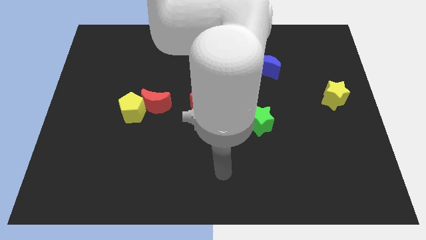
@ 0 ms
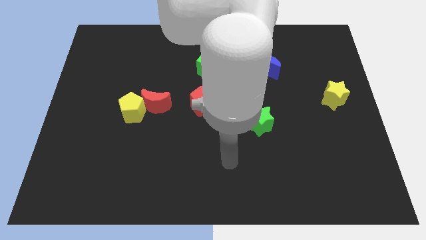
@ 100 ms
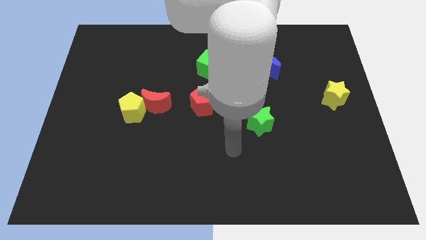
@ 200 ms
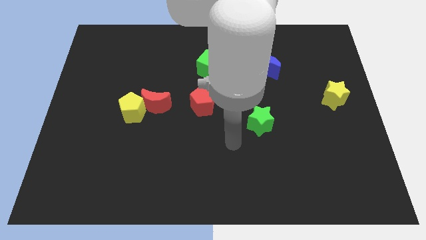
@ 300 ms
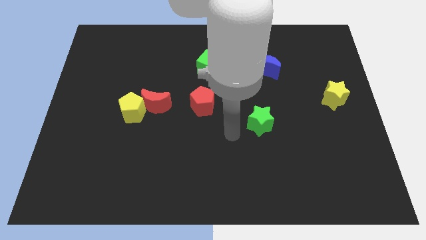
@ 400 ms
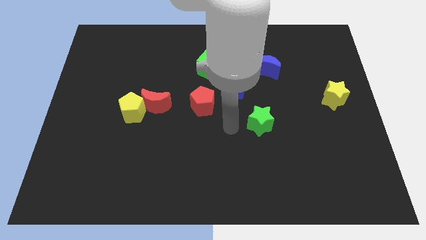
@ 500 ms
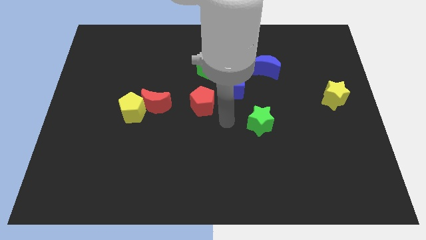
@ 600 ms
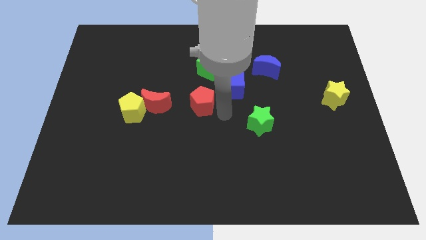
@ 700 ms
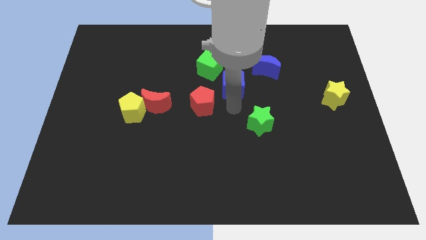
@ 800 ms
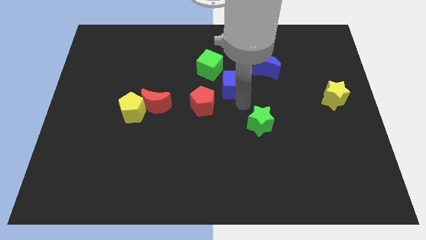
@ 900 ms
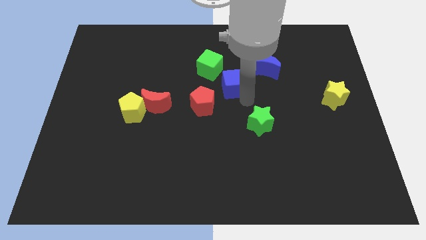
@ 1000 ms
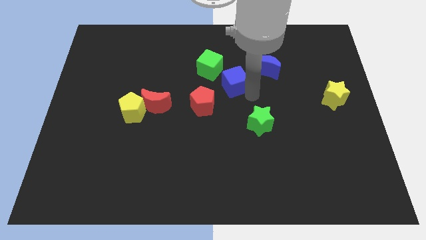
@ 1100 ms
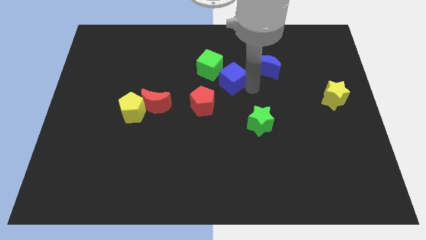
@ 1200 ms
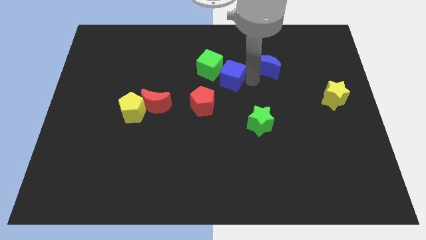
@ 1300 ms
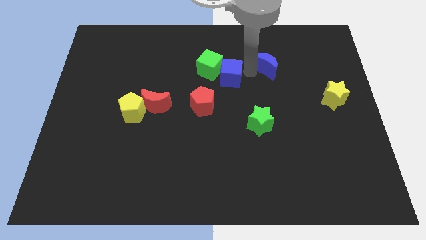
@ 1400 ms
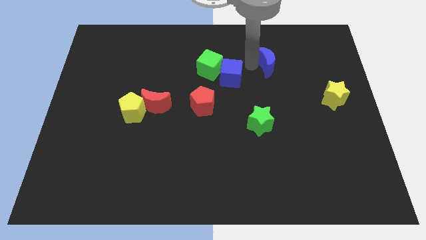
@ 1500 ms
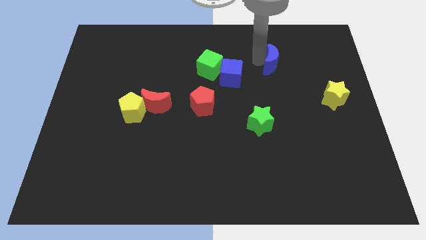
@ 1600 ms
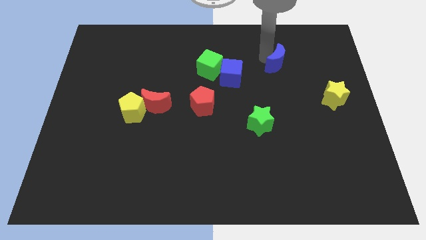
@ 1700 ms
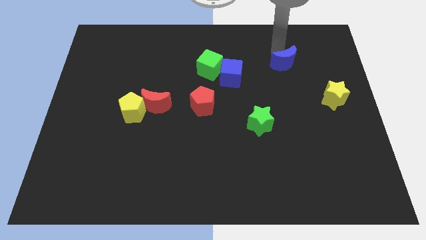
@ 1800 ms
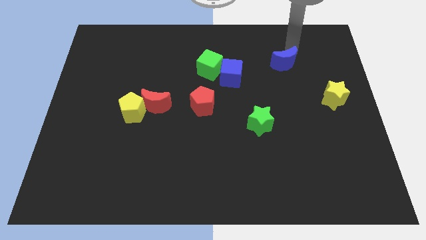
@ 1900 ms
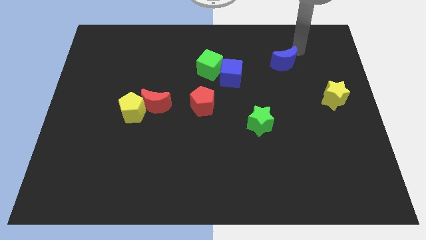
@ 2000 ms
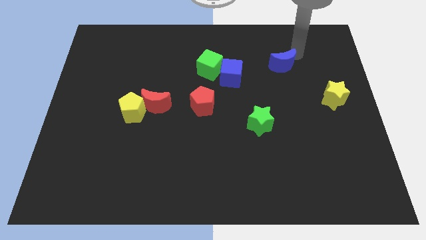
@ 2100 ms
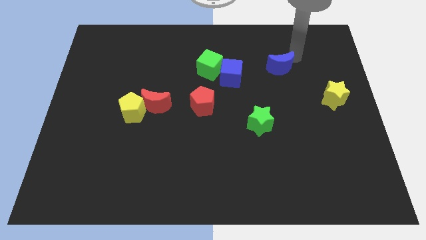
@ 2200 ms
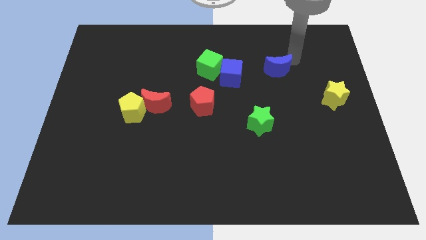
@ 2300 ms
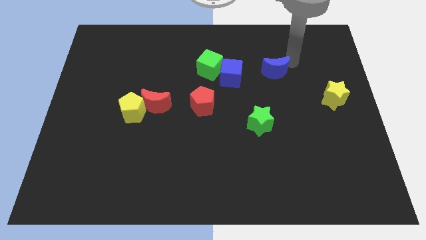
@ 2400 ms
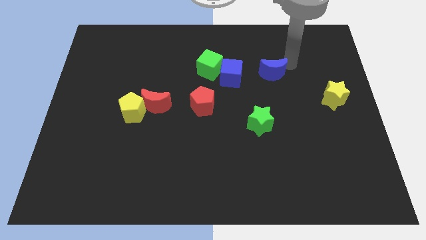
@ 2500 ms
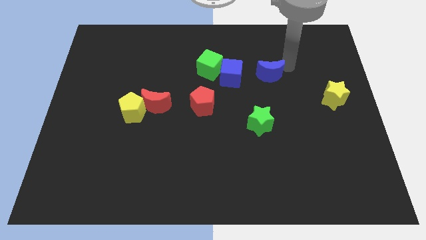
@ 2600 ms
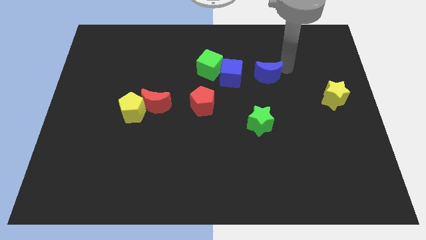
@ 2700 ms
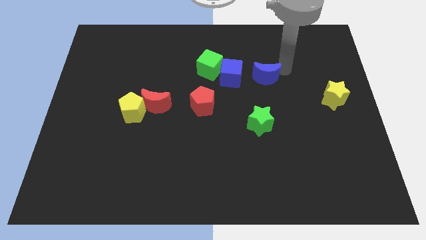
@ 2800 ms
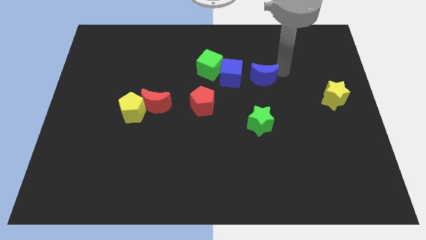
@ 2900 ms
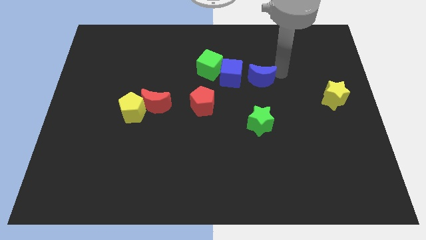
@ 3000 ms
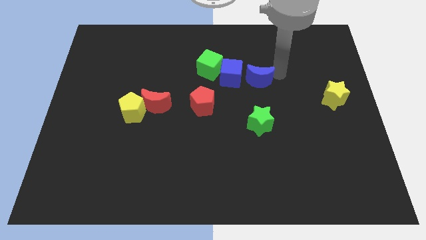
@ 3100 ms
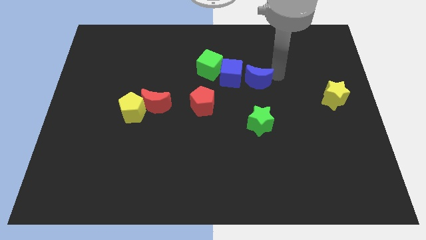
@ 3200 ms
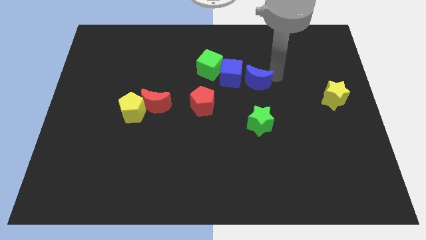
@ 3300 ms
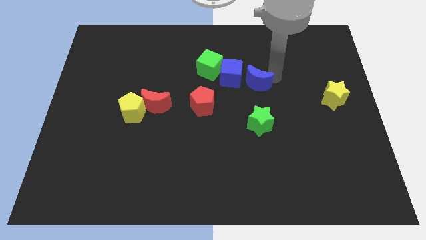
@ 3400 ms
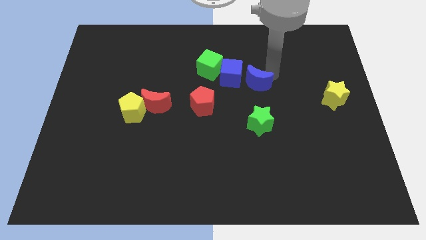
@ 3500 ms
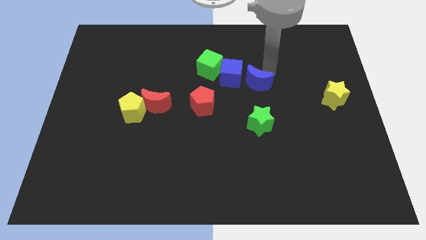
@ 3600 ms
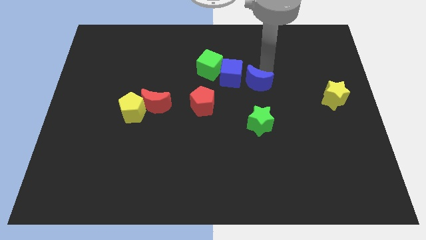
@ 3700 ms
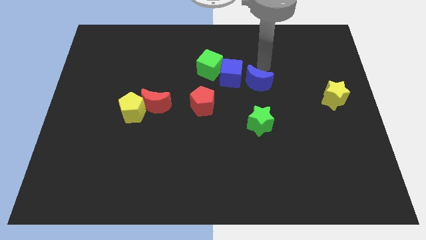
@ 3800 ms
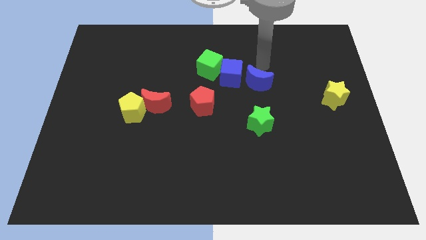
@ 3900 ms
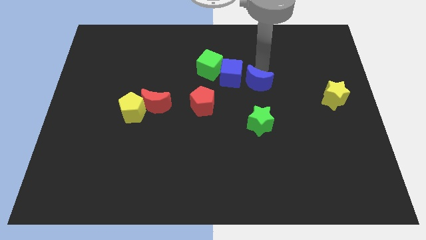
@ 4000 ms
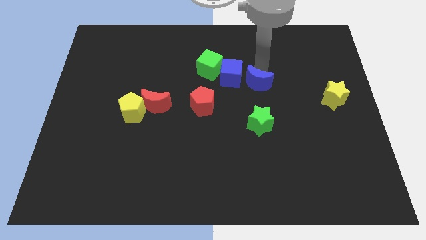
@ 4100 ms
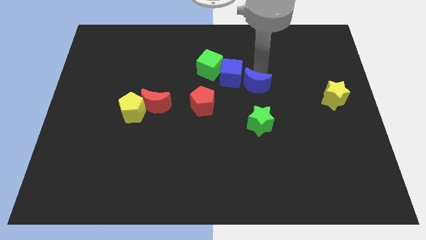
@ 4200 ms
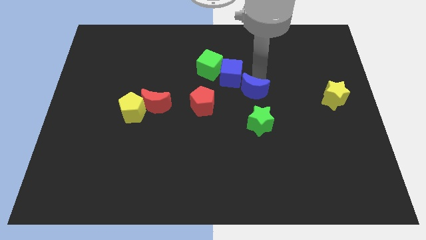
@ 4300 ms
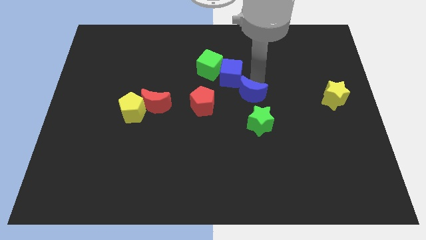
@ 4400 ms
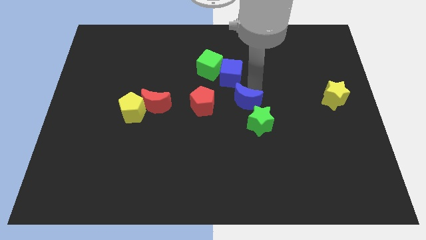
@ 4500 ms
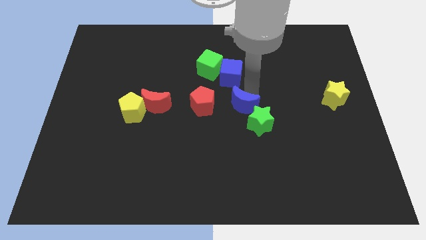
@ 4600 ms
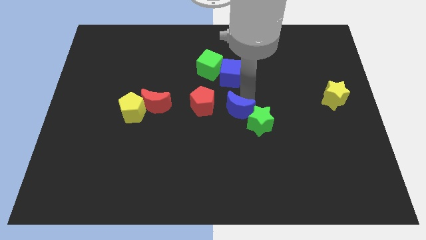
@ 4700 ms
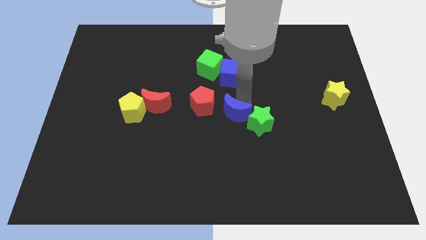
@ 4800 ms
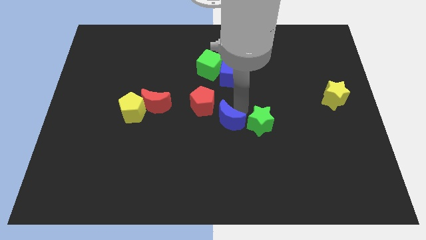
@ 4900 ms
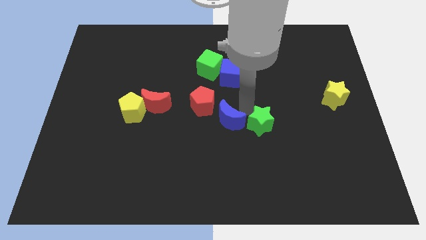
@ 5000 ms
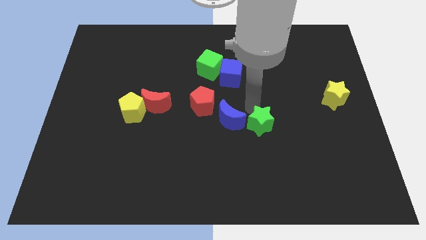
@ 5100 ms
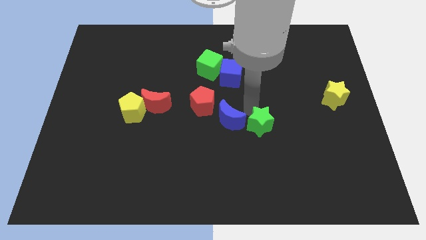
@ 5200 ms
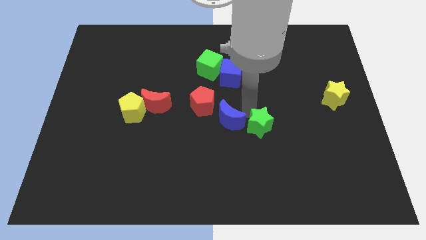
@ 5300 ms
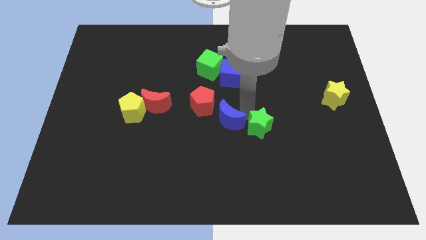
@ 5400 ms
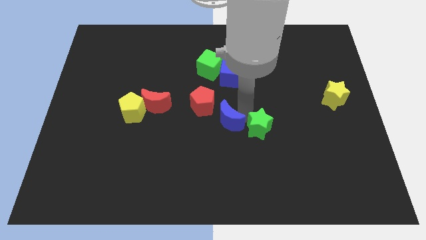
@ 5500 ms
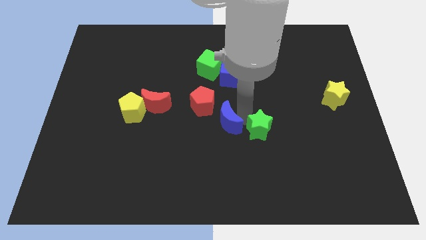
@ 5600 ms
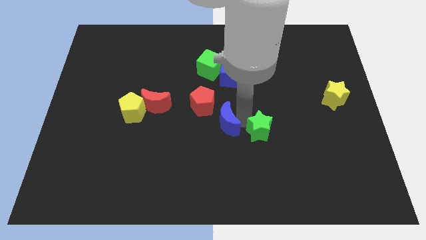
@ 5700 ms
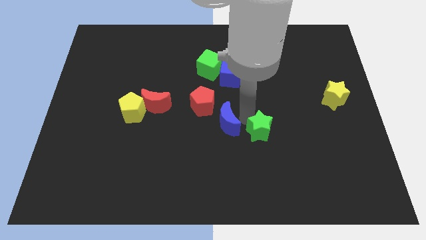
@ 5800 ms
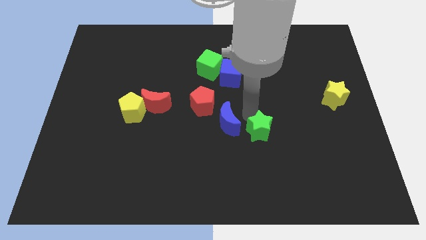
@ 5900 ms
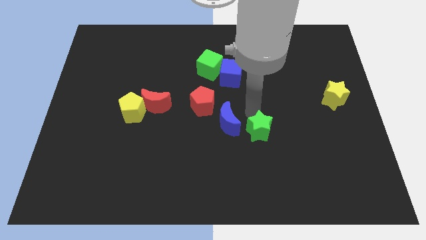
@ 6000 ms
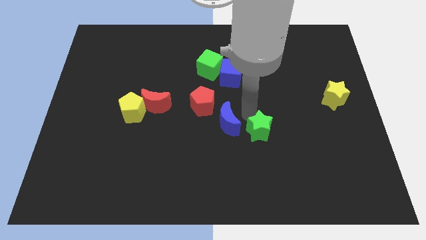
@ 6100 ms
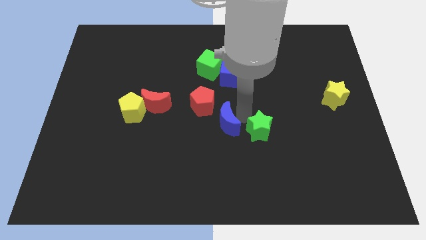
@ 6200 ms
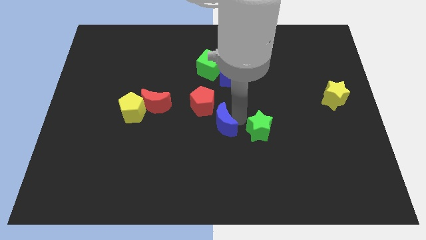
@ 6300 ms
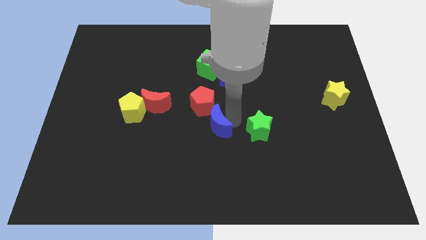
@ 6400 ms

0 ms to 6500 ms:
move the blue moon down and then left

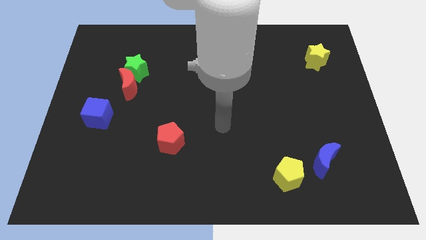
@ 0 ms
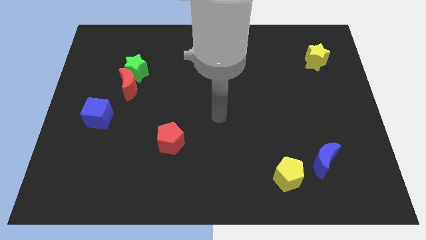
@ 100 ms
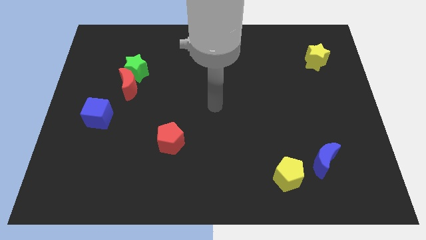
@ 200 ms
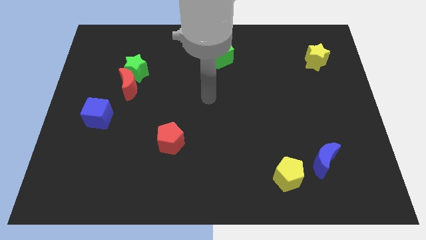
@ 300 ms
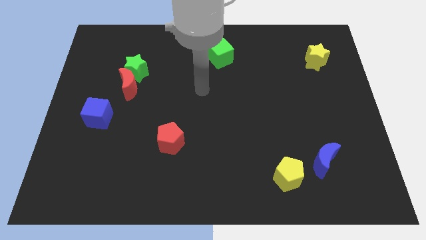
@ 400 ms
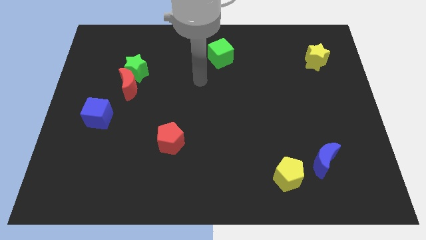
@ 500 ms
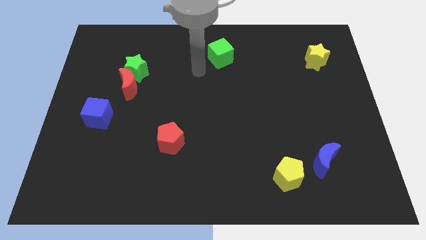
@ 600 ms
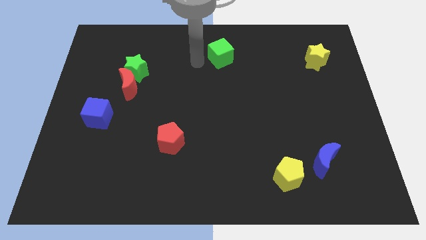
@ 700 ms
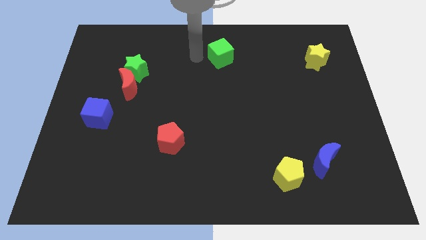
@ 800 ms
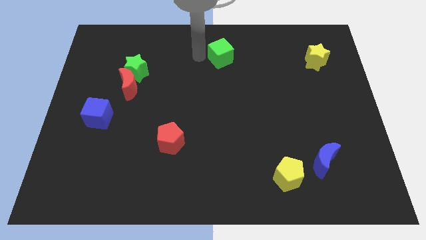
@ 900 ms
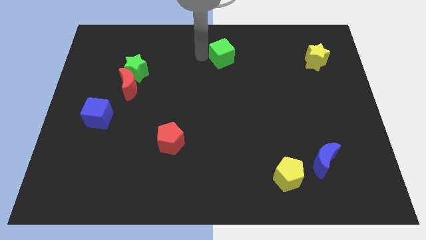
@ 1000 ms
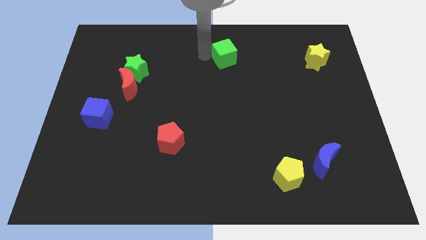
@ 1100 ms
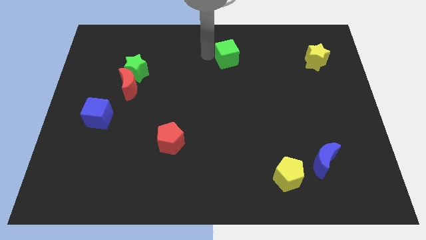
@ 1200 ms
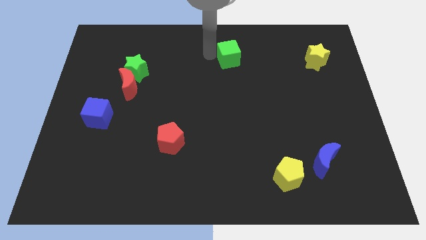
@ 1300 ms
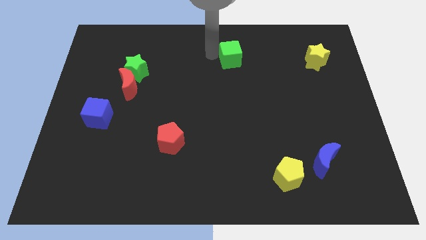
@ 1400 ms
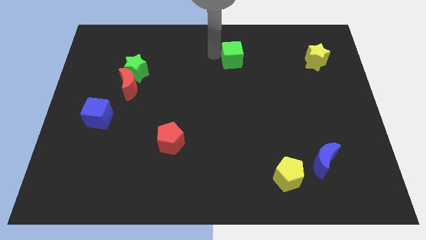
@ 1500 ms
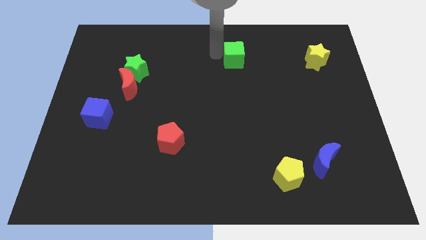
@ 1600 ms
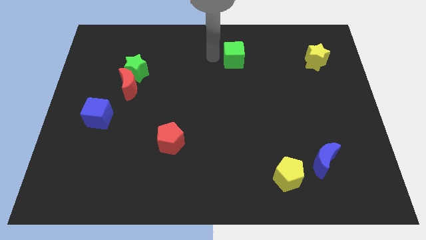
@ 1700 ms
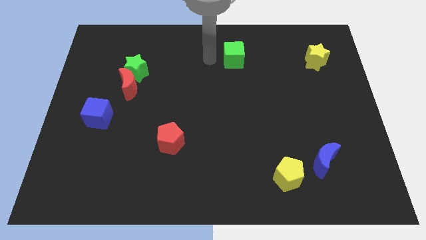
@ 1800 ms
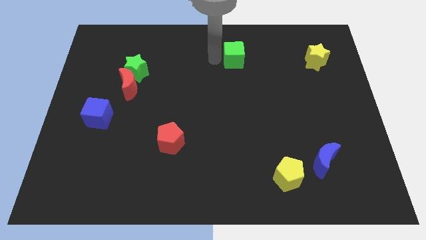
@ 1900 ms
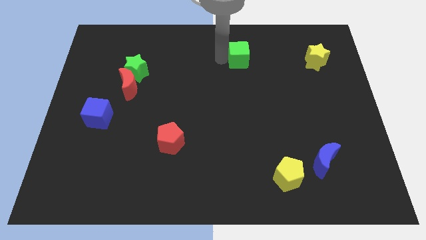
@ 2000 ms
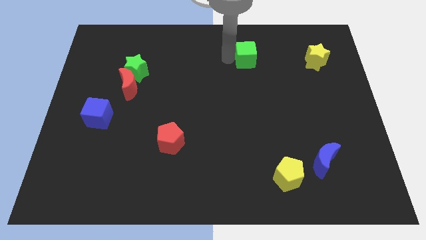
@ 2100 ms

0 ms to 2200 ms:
slide the green cube slightly to the right
